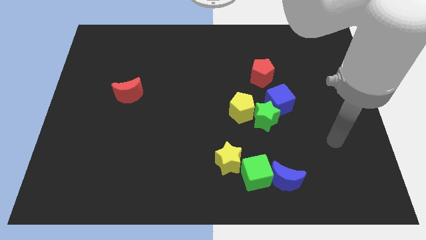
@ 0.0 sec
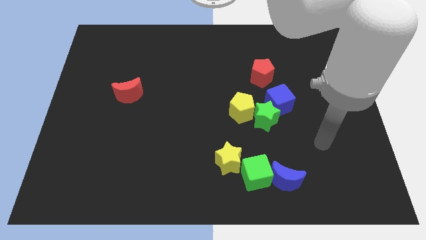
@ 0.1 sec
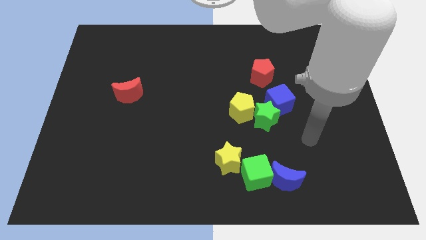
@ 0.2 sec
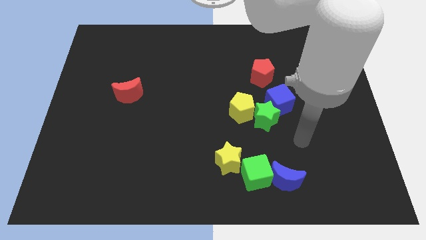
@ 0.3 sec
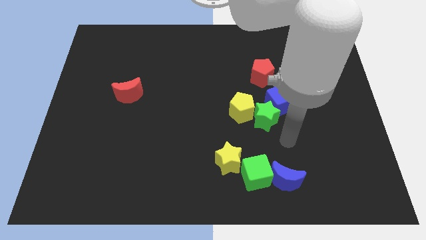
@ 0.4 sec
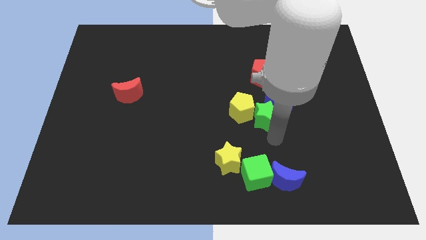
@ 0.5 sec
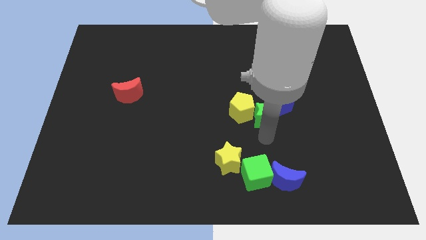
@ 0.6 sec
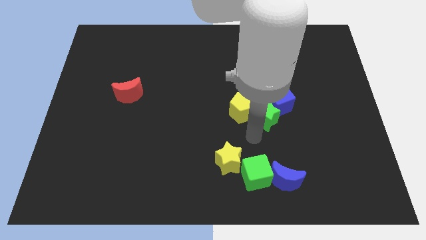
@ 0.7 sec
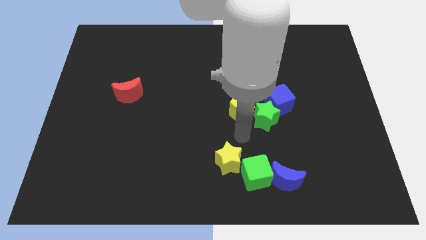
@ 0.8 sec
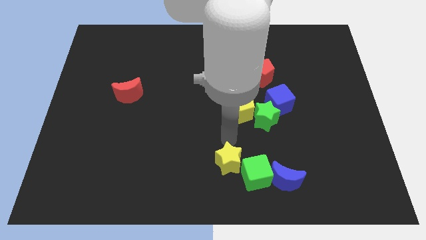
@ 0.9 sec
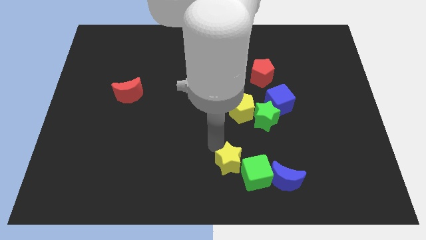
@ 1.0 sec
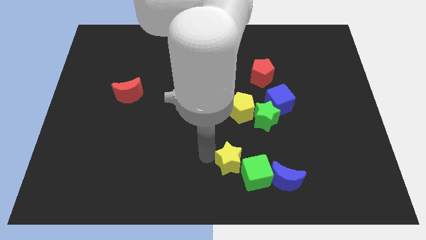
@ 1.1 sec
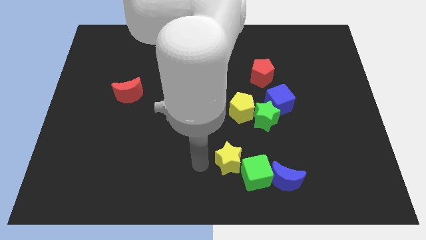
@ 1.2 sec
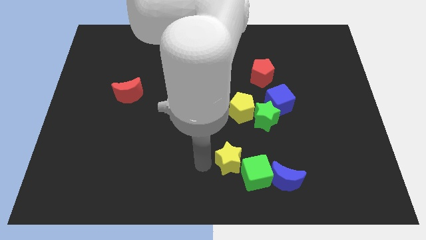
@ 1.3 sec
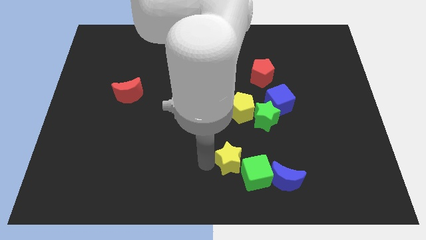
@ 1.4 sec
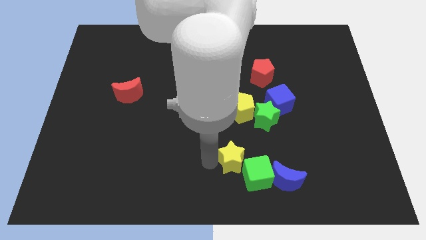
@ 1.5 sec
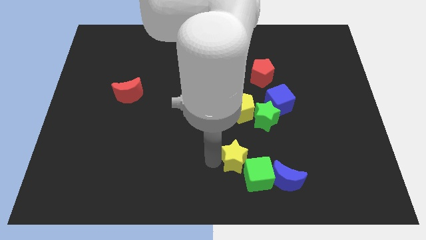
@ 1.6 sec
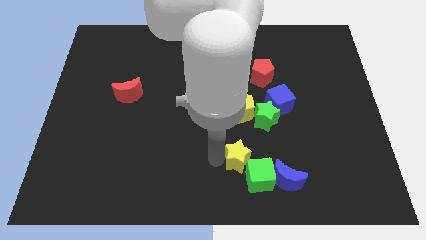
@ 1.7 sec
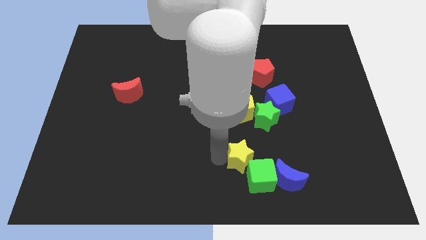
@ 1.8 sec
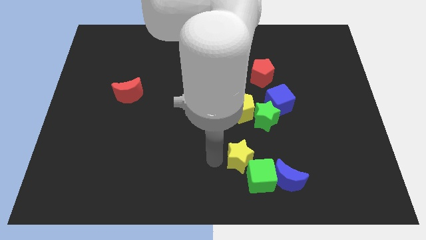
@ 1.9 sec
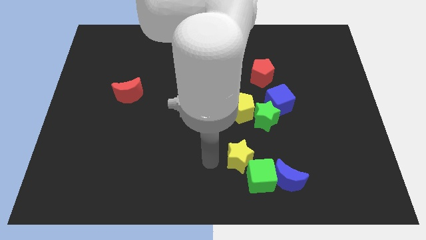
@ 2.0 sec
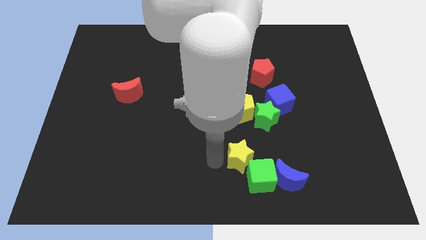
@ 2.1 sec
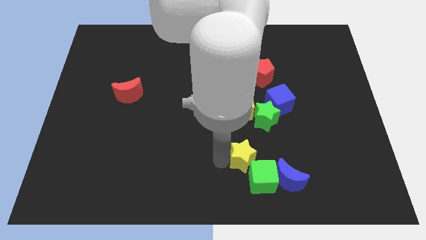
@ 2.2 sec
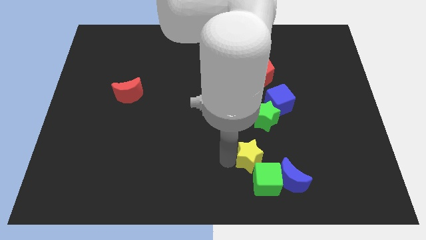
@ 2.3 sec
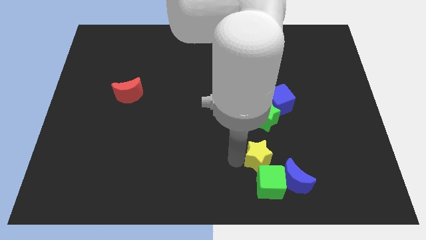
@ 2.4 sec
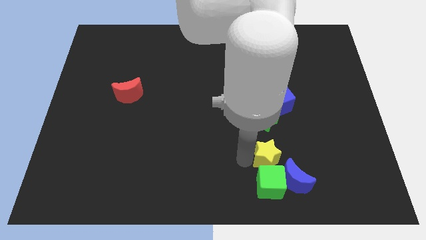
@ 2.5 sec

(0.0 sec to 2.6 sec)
slide the yellow star a little bit to the right

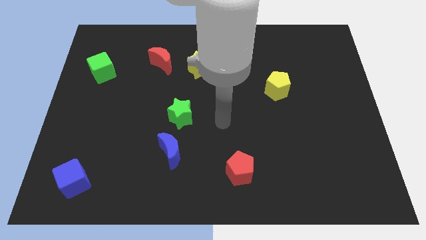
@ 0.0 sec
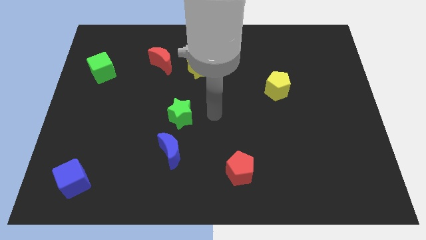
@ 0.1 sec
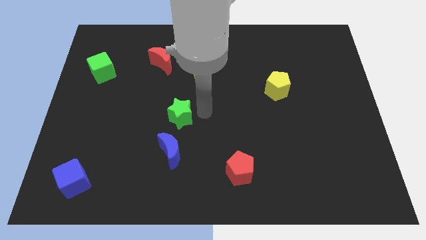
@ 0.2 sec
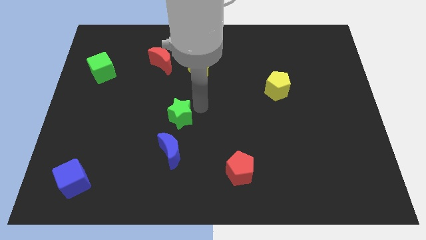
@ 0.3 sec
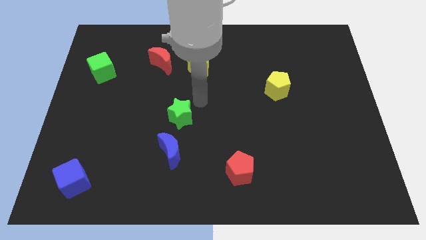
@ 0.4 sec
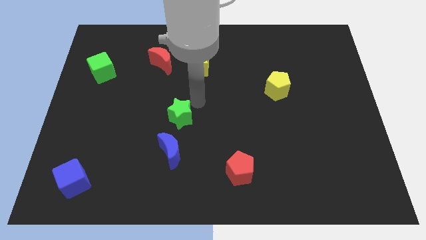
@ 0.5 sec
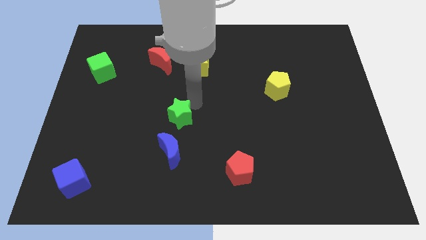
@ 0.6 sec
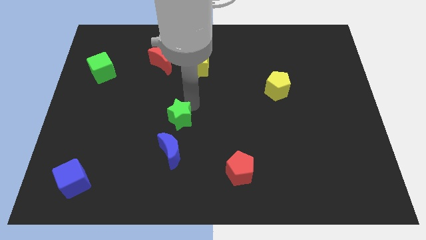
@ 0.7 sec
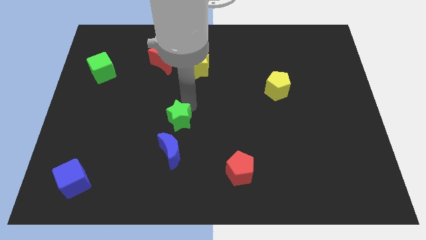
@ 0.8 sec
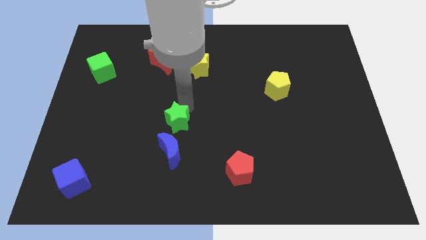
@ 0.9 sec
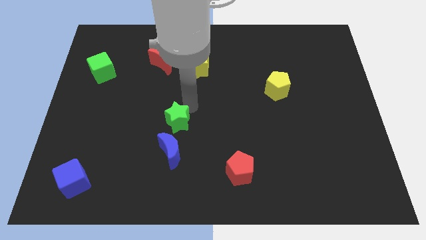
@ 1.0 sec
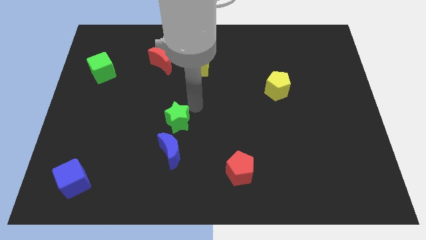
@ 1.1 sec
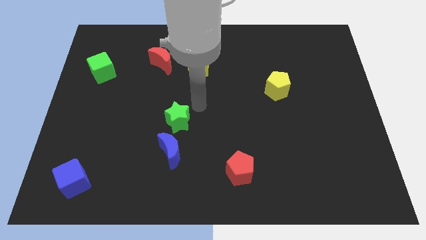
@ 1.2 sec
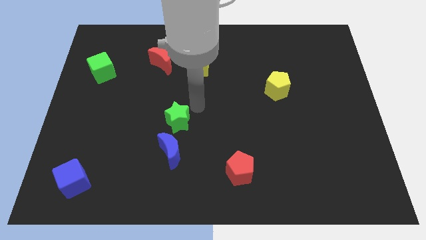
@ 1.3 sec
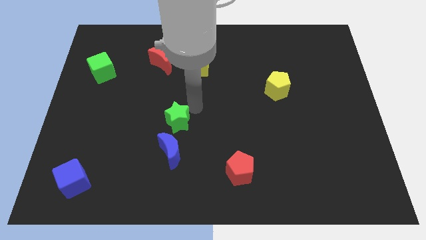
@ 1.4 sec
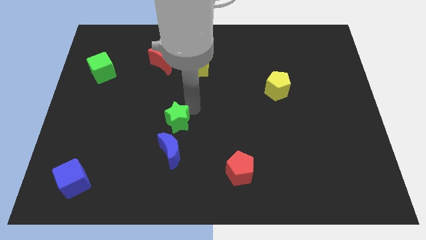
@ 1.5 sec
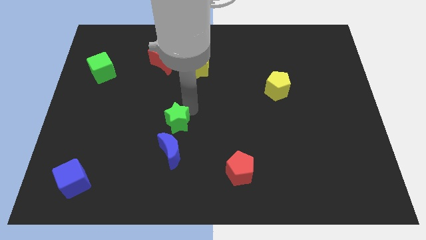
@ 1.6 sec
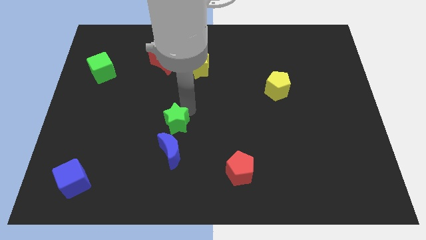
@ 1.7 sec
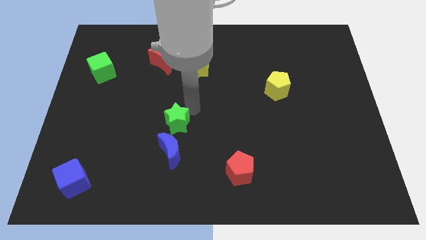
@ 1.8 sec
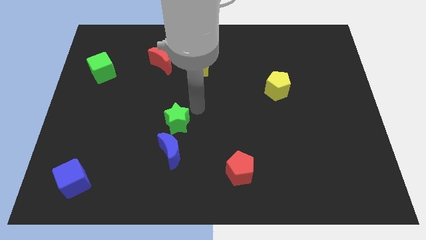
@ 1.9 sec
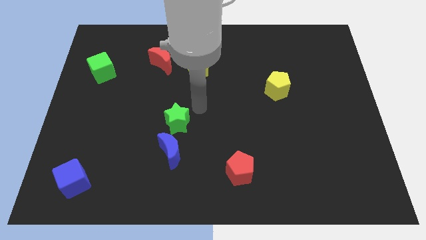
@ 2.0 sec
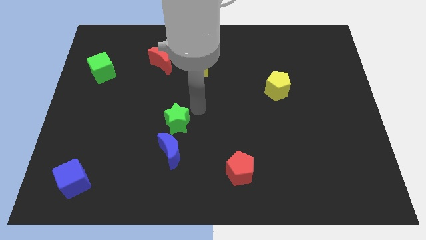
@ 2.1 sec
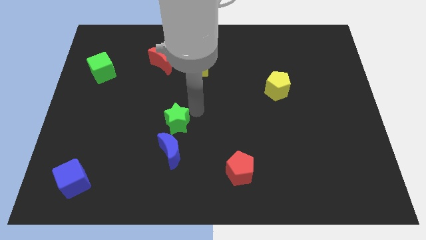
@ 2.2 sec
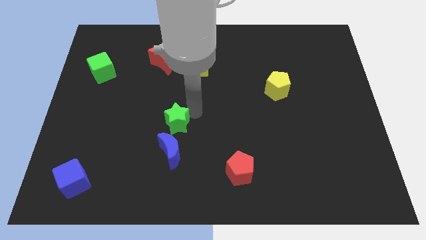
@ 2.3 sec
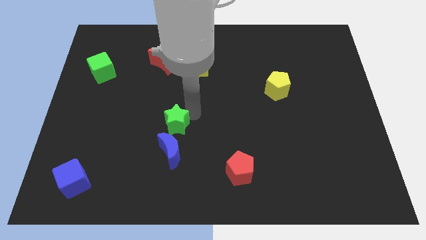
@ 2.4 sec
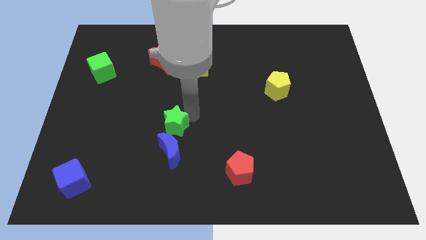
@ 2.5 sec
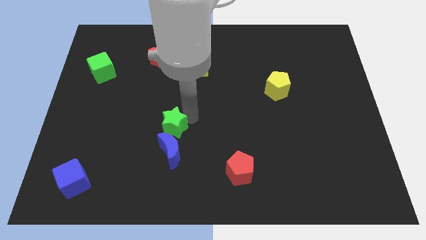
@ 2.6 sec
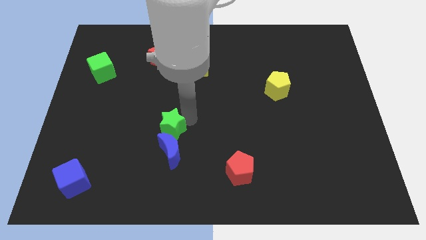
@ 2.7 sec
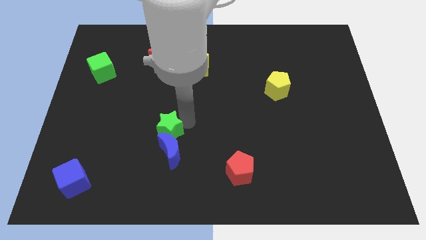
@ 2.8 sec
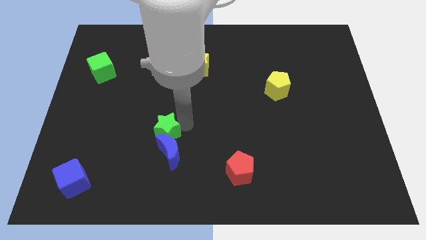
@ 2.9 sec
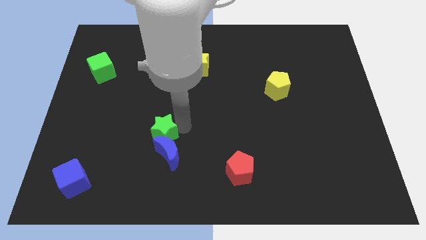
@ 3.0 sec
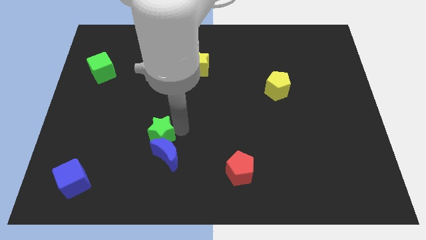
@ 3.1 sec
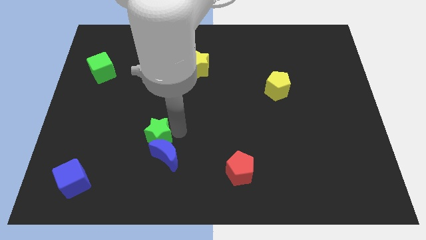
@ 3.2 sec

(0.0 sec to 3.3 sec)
slightly slide the green star down and left

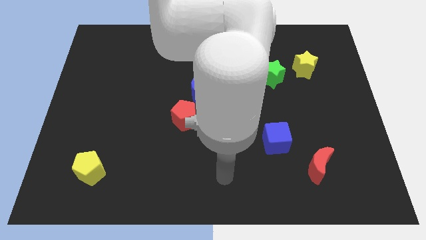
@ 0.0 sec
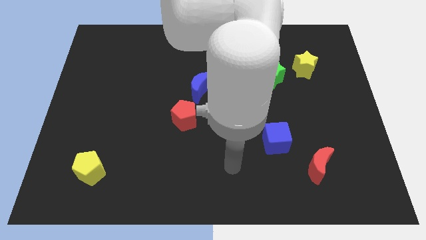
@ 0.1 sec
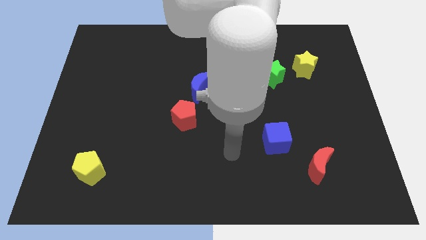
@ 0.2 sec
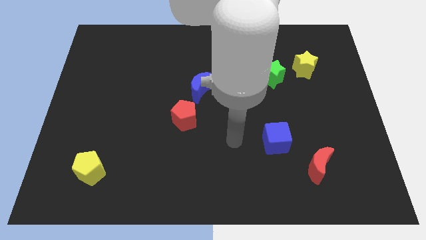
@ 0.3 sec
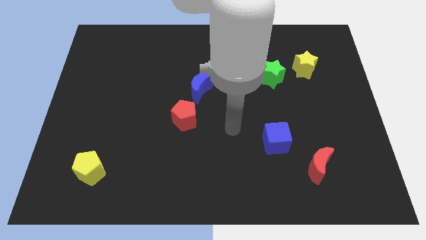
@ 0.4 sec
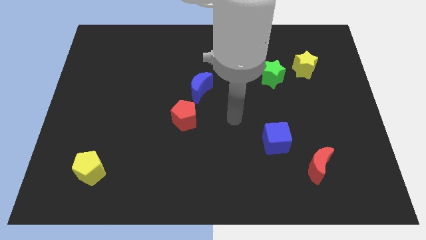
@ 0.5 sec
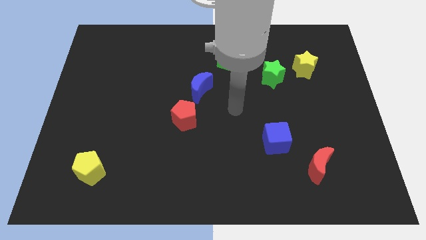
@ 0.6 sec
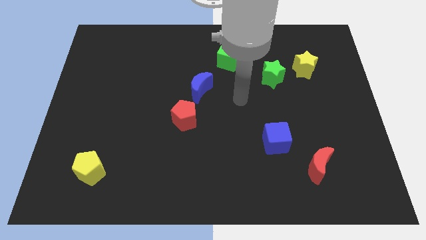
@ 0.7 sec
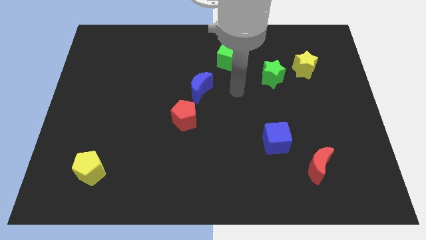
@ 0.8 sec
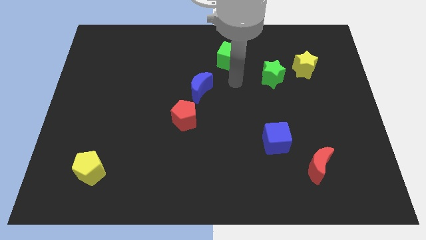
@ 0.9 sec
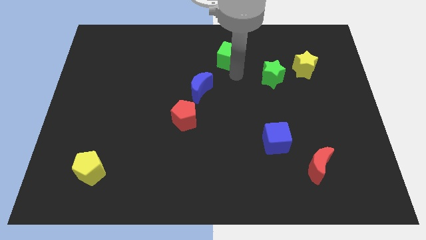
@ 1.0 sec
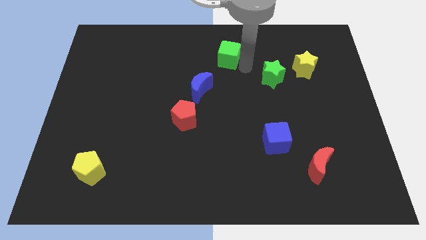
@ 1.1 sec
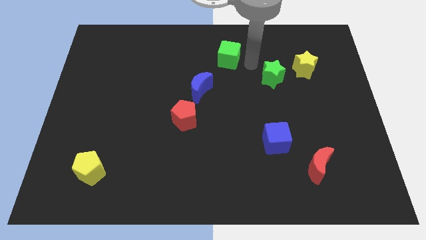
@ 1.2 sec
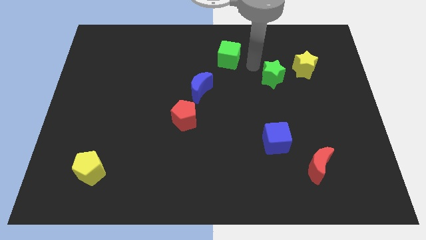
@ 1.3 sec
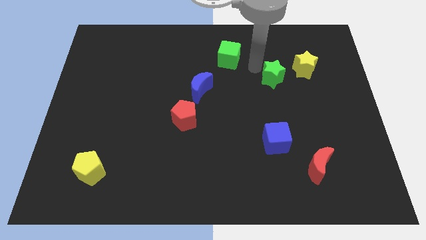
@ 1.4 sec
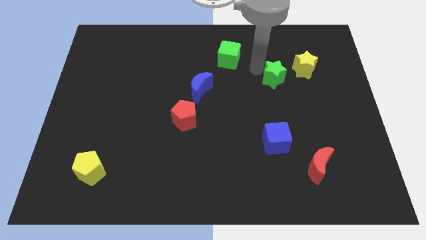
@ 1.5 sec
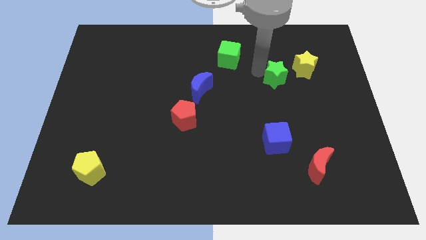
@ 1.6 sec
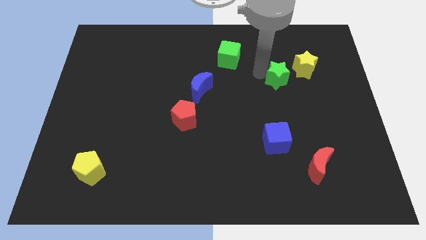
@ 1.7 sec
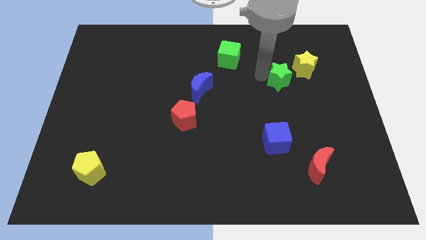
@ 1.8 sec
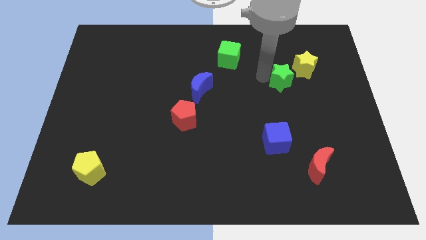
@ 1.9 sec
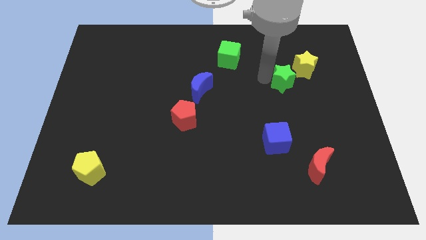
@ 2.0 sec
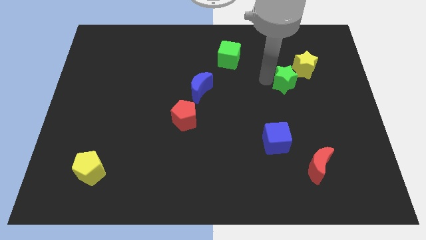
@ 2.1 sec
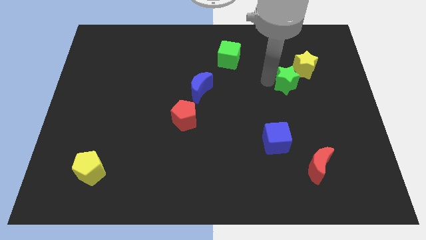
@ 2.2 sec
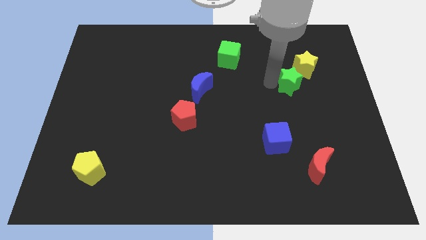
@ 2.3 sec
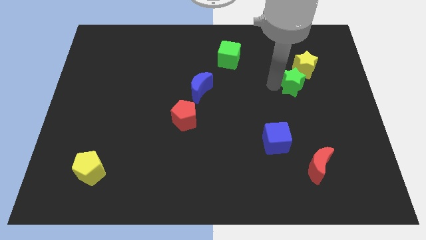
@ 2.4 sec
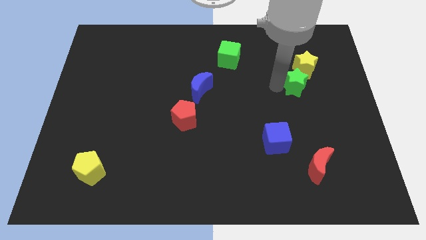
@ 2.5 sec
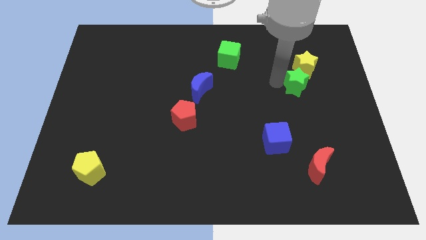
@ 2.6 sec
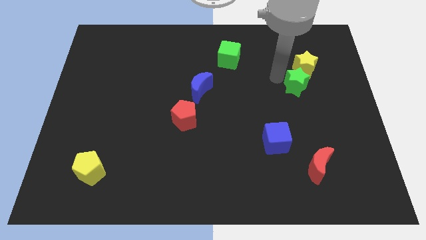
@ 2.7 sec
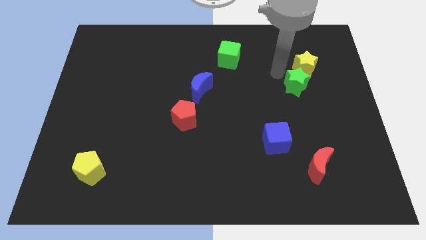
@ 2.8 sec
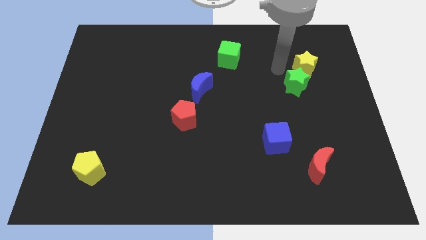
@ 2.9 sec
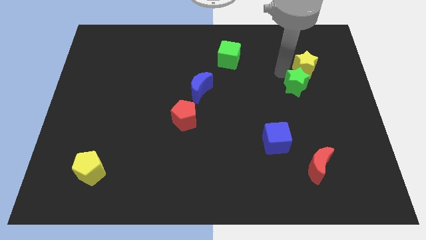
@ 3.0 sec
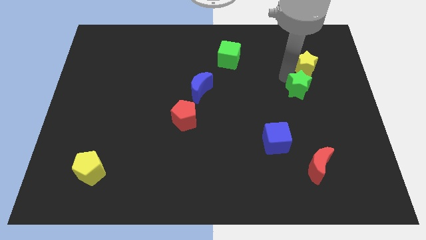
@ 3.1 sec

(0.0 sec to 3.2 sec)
slide the green star somewhat downwards and then to the right
